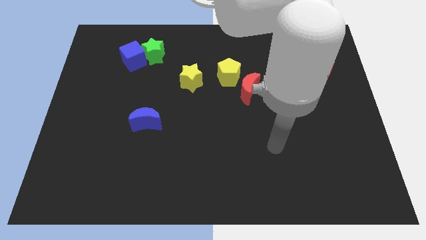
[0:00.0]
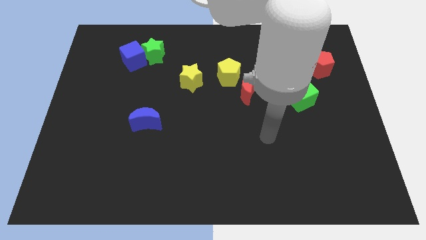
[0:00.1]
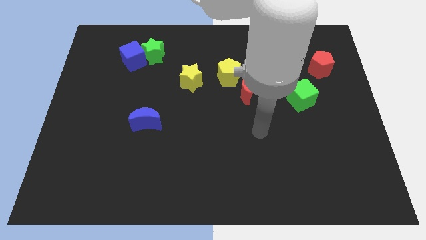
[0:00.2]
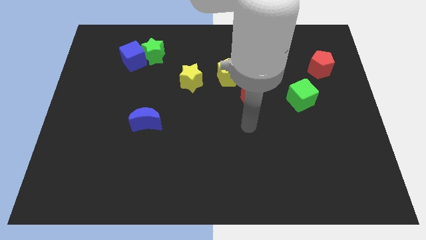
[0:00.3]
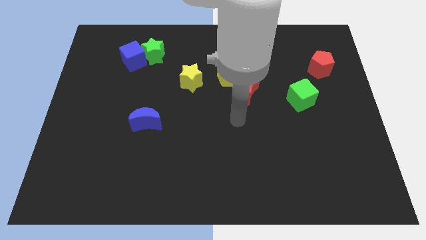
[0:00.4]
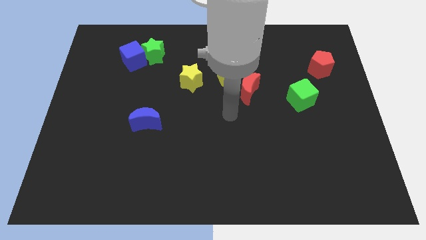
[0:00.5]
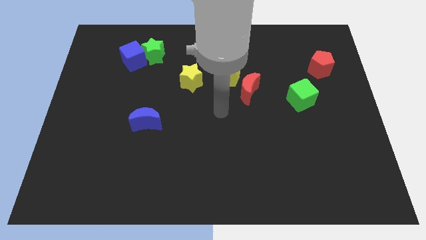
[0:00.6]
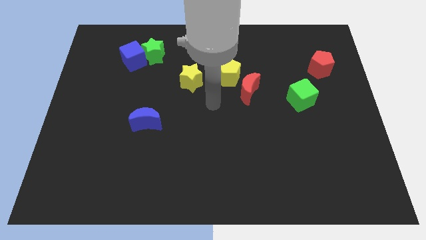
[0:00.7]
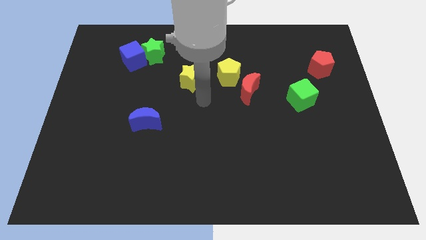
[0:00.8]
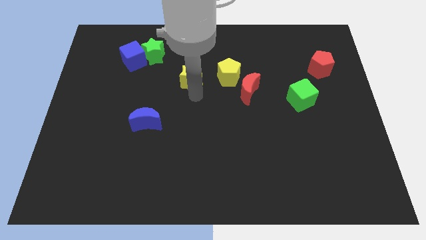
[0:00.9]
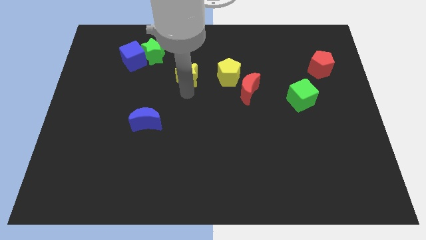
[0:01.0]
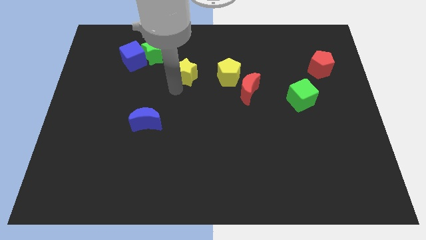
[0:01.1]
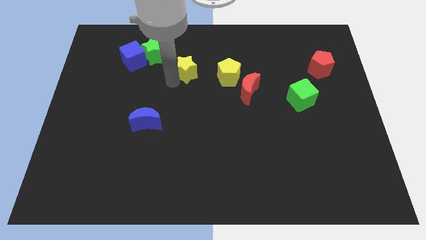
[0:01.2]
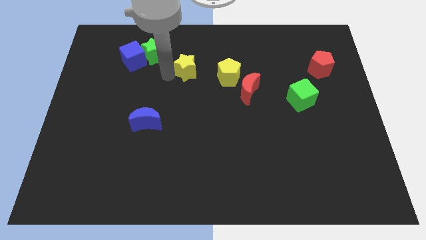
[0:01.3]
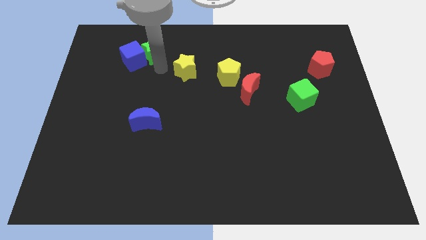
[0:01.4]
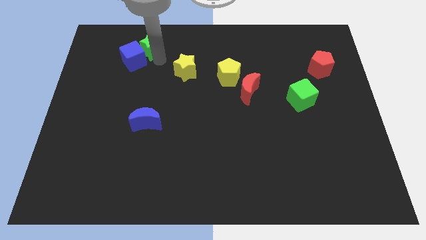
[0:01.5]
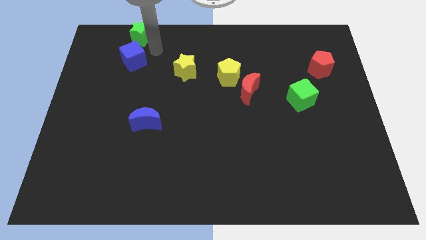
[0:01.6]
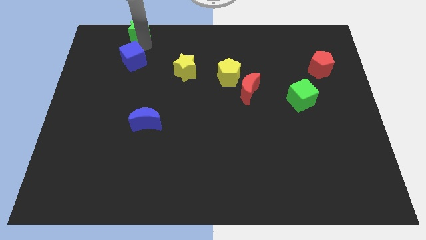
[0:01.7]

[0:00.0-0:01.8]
separate the blue cube from the green star

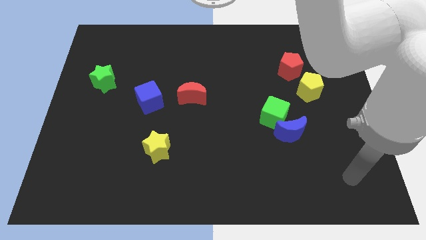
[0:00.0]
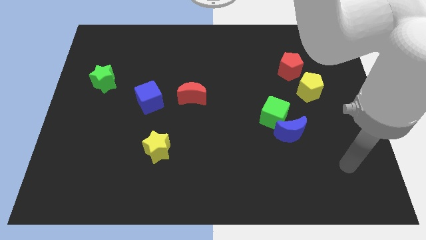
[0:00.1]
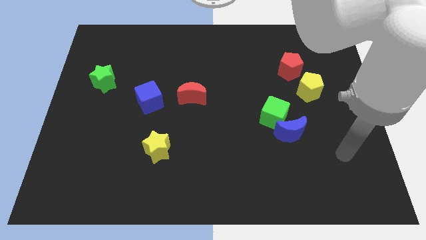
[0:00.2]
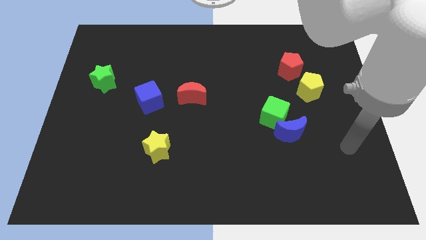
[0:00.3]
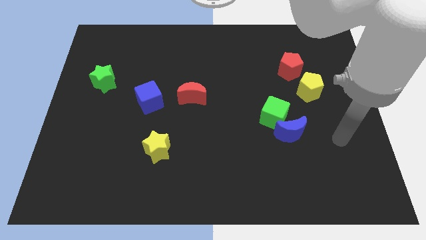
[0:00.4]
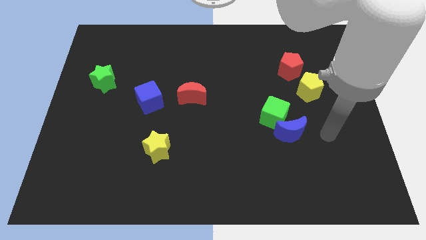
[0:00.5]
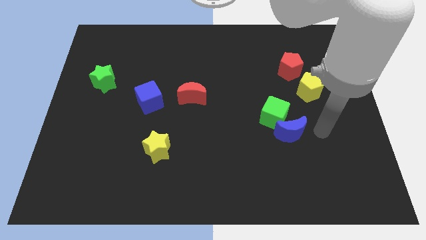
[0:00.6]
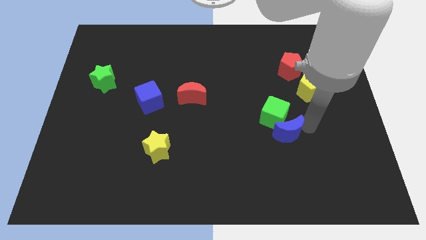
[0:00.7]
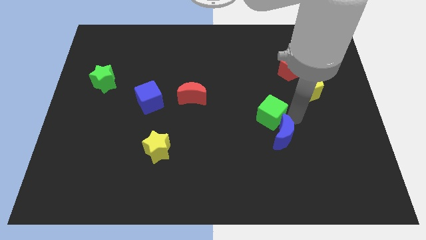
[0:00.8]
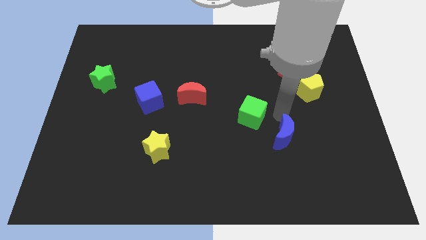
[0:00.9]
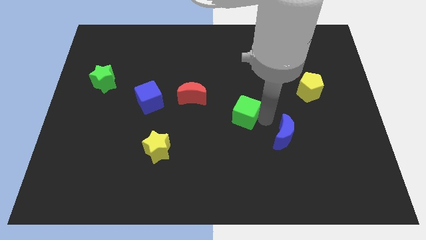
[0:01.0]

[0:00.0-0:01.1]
move the blue moon away from the green cube

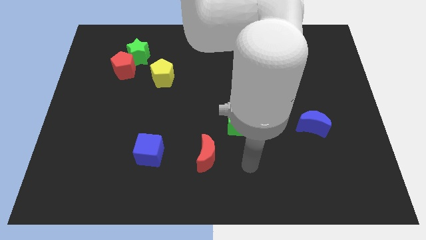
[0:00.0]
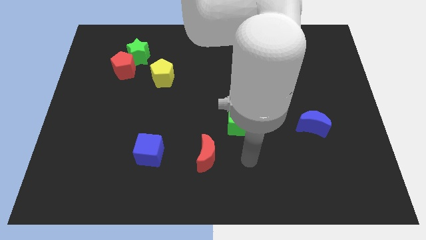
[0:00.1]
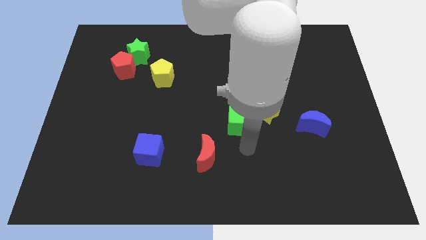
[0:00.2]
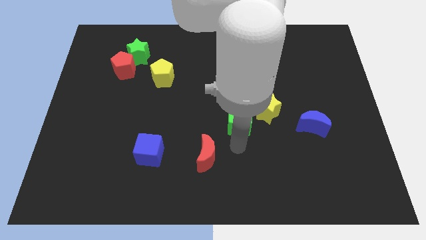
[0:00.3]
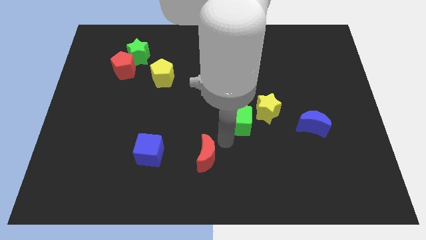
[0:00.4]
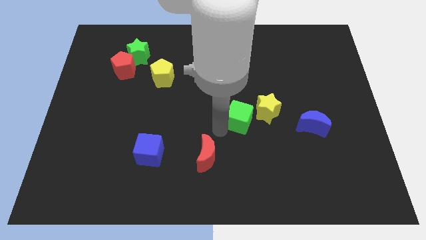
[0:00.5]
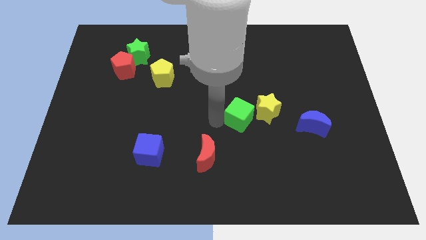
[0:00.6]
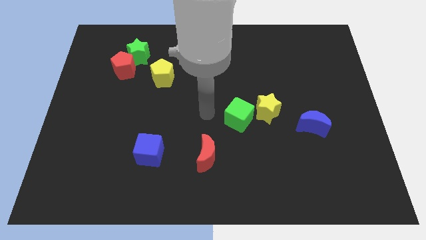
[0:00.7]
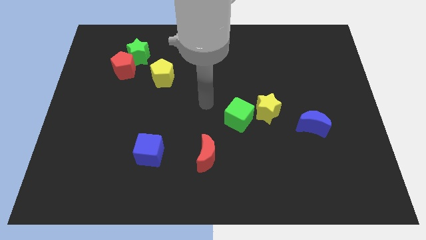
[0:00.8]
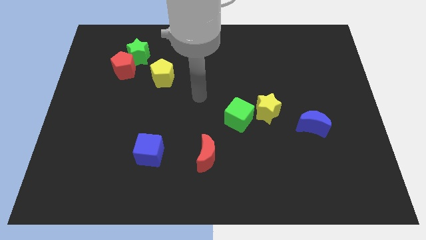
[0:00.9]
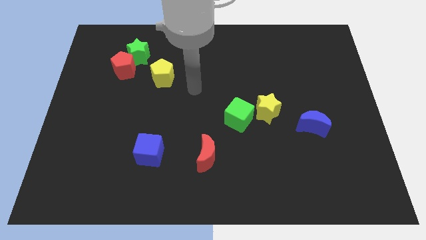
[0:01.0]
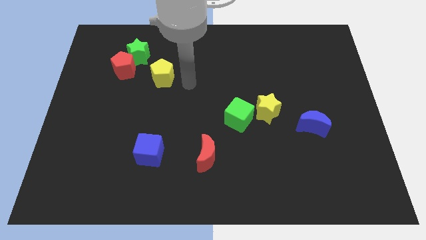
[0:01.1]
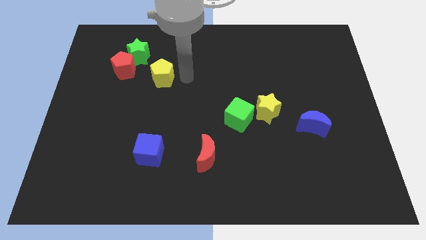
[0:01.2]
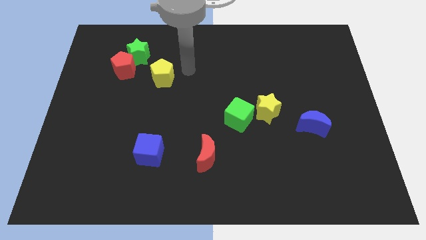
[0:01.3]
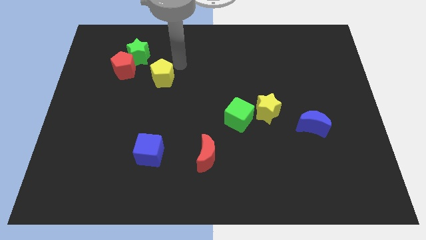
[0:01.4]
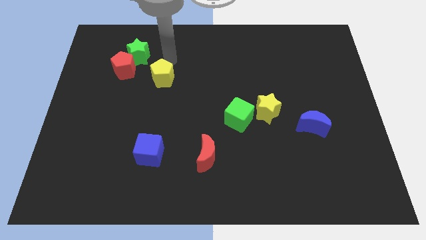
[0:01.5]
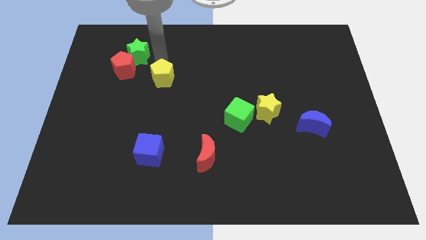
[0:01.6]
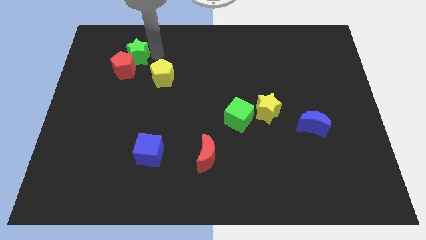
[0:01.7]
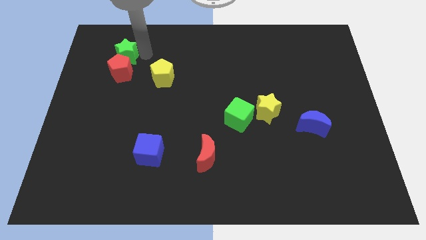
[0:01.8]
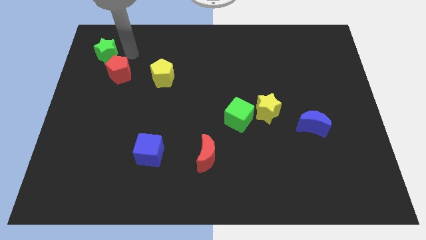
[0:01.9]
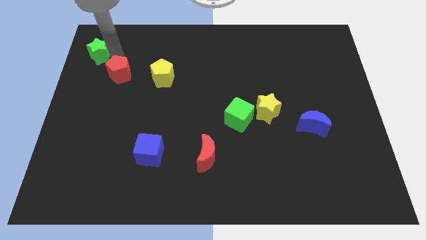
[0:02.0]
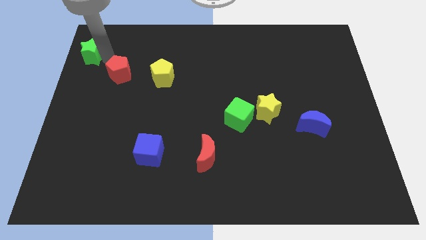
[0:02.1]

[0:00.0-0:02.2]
pull the red pentagon apart from the green star

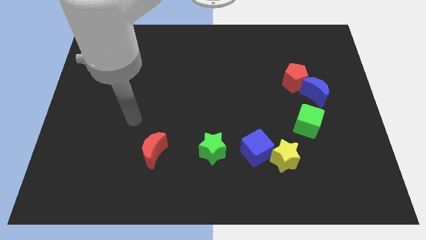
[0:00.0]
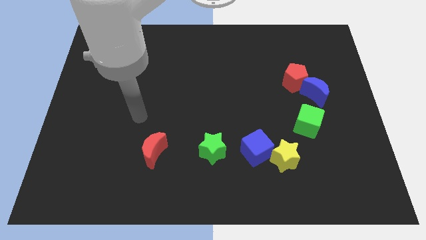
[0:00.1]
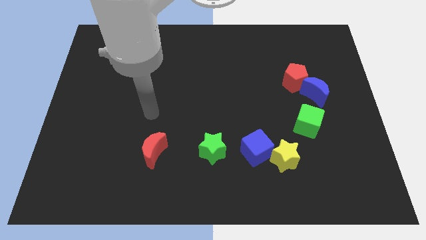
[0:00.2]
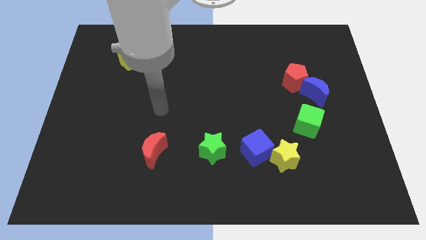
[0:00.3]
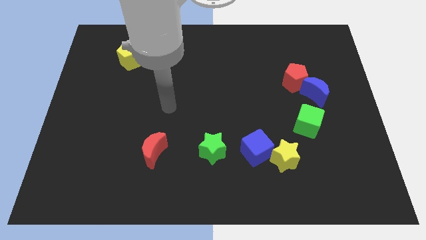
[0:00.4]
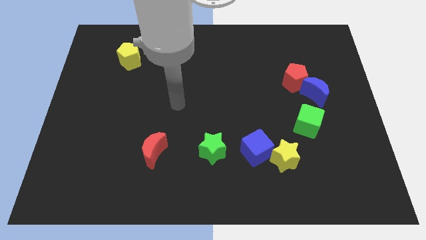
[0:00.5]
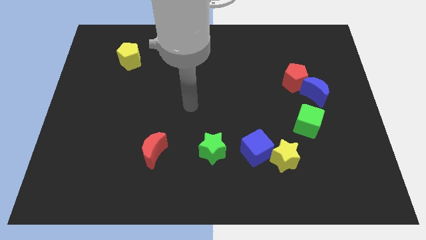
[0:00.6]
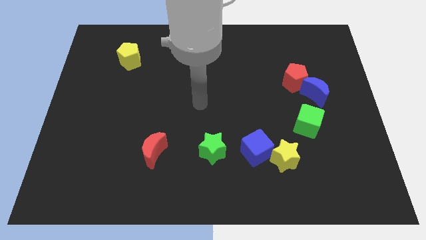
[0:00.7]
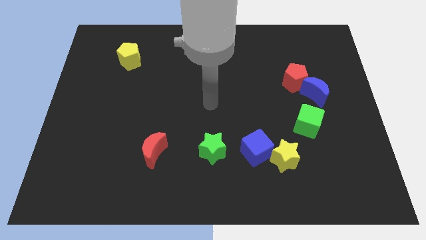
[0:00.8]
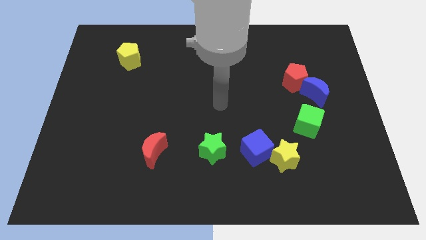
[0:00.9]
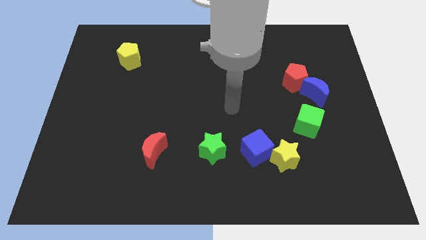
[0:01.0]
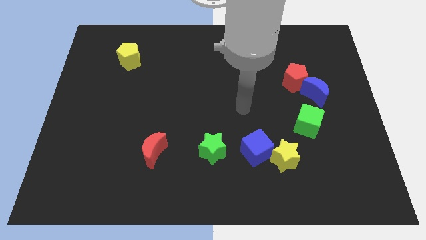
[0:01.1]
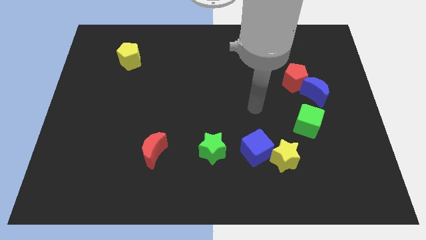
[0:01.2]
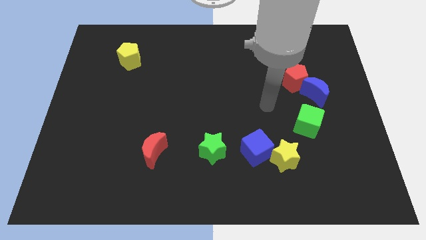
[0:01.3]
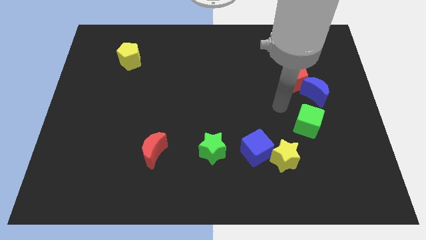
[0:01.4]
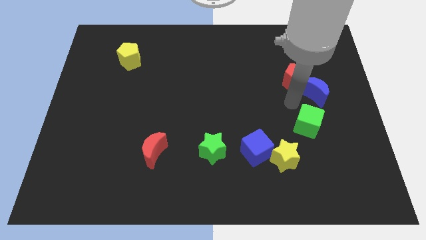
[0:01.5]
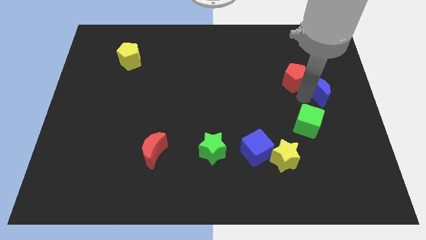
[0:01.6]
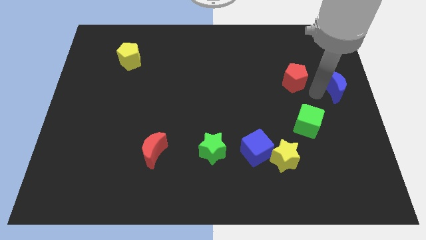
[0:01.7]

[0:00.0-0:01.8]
pull the red pentagon apart from the blue moon

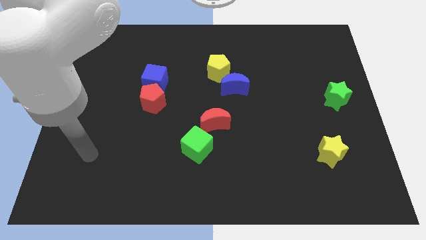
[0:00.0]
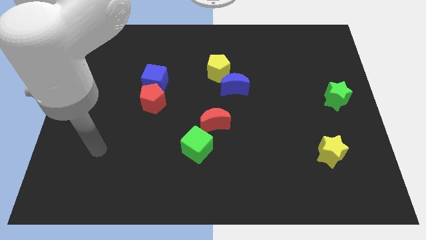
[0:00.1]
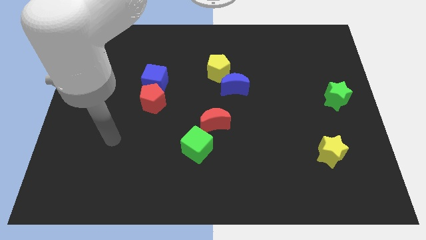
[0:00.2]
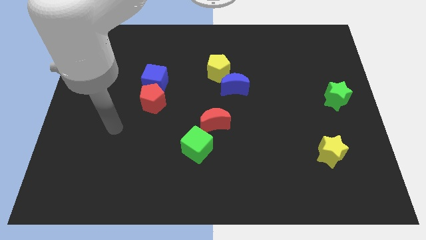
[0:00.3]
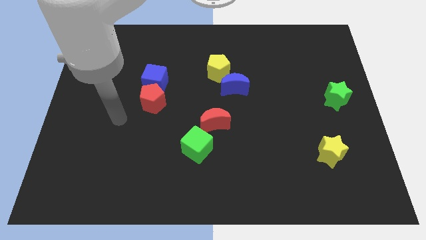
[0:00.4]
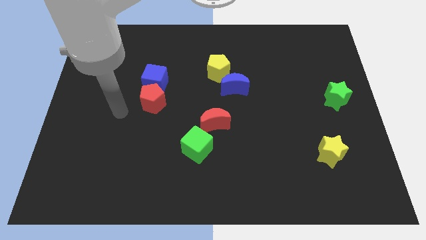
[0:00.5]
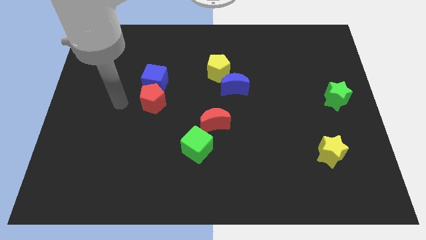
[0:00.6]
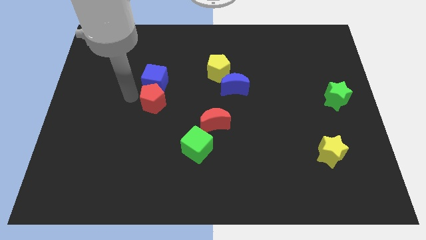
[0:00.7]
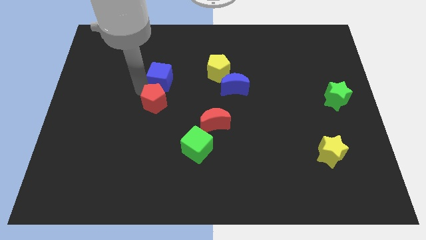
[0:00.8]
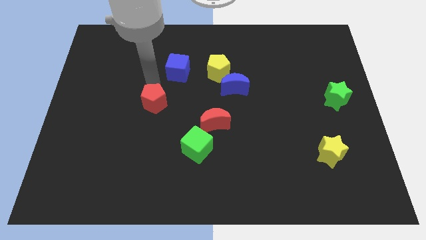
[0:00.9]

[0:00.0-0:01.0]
move the red pentagon away from the blue cube

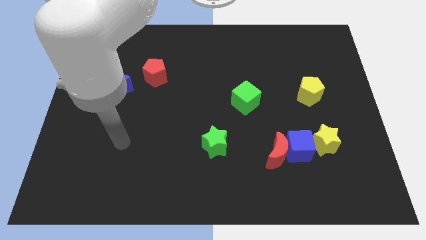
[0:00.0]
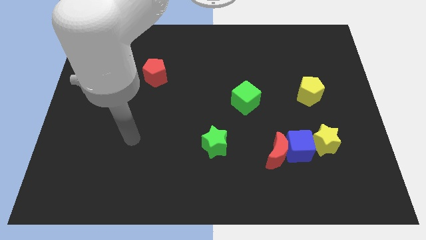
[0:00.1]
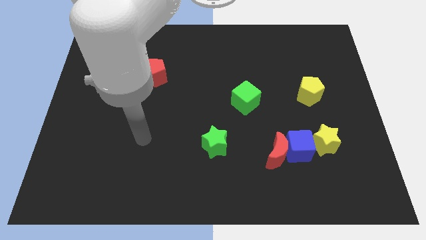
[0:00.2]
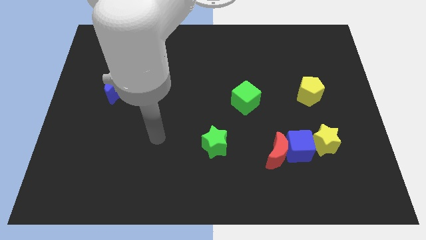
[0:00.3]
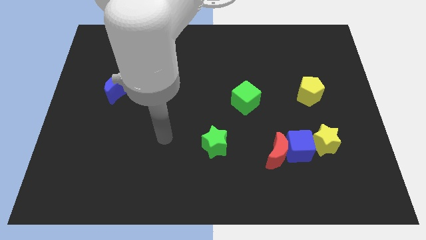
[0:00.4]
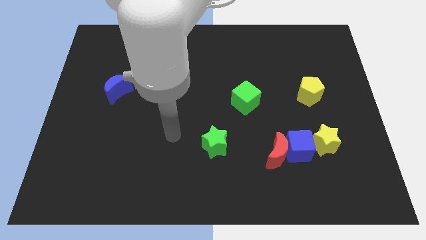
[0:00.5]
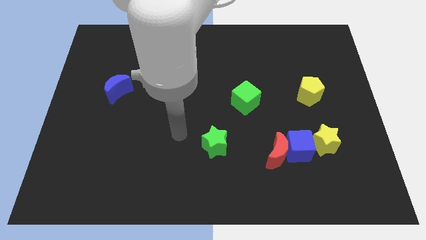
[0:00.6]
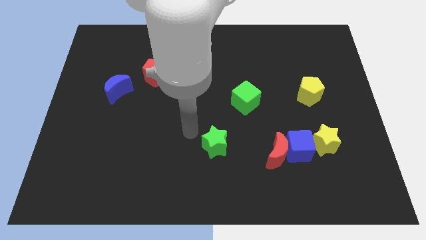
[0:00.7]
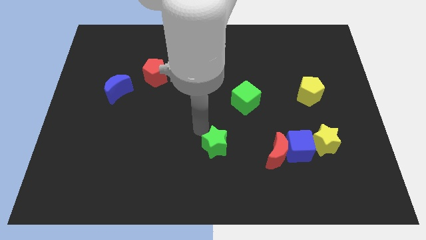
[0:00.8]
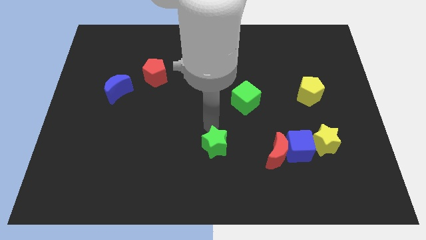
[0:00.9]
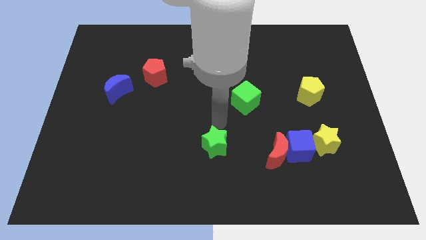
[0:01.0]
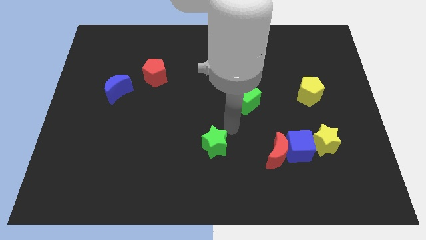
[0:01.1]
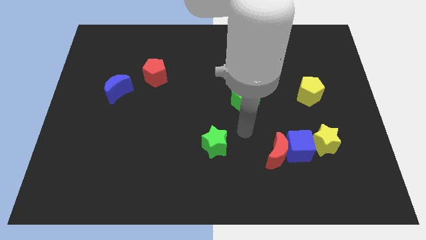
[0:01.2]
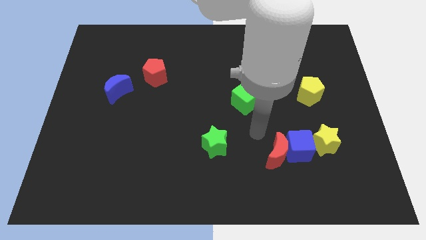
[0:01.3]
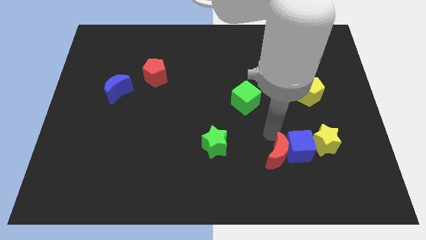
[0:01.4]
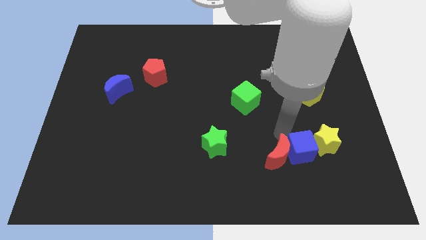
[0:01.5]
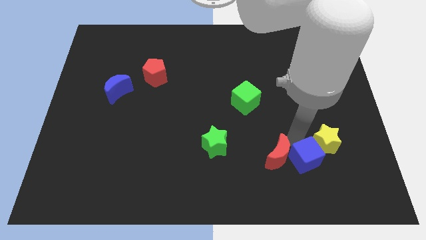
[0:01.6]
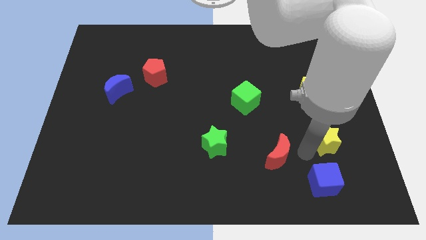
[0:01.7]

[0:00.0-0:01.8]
move the red moon away from the blue cube
